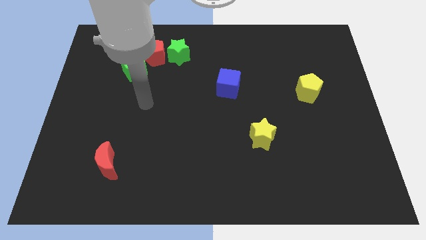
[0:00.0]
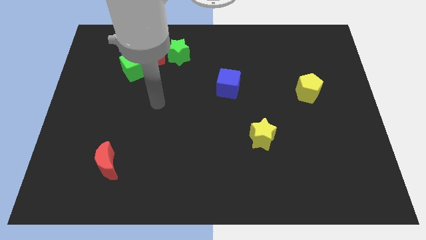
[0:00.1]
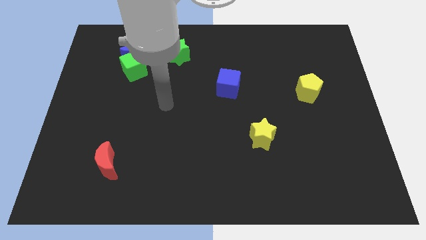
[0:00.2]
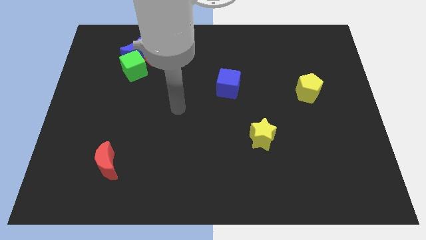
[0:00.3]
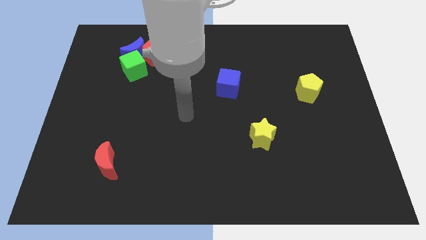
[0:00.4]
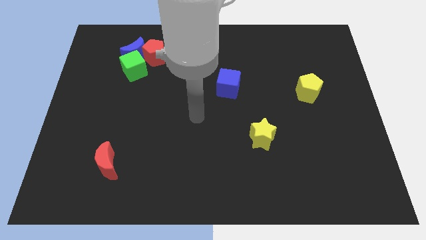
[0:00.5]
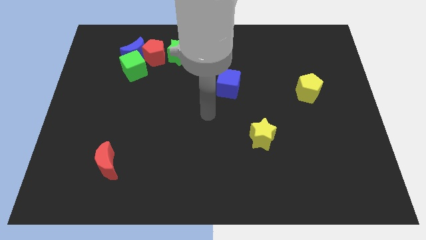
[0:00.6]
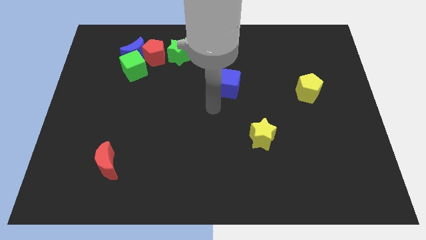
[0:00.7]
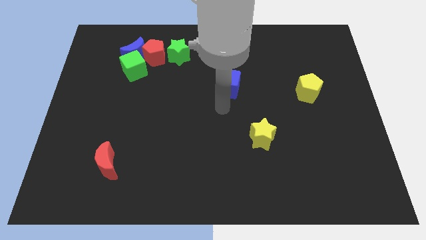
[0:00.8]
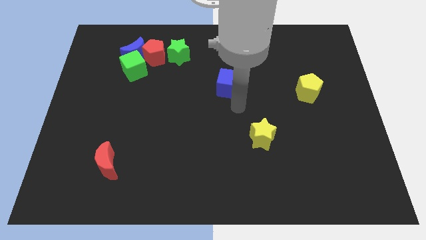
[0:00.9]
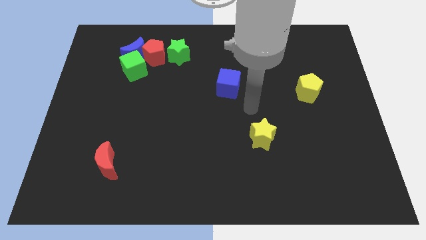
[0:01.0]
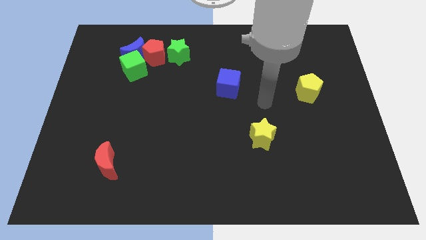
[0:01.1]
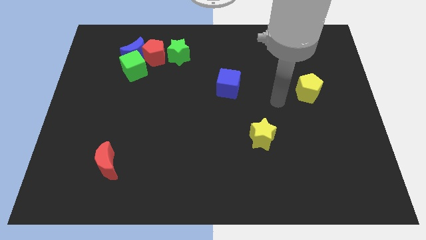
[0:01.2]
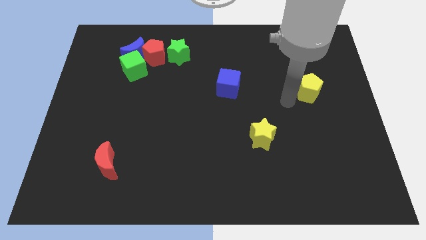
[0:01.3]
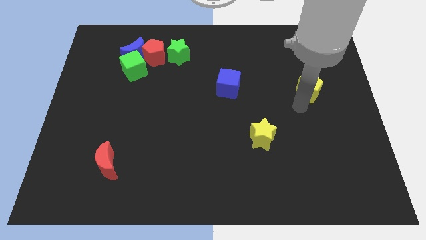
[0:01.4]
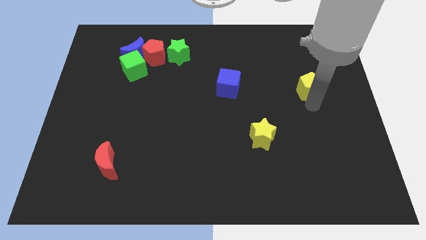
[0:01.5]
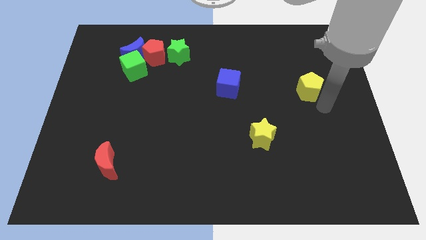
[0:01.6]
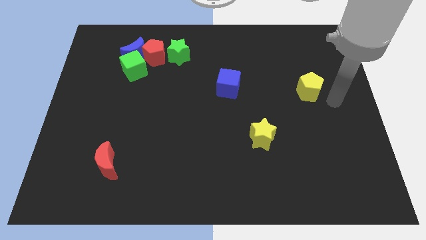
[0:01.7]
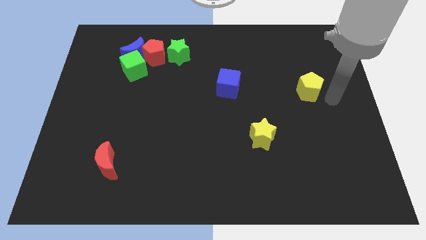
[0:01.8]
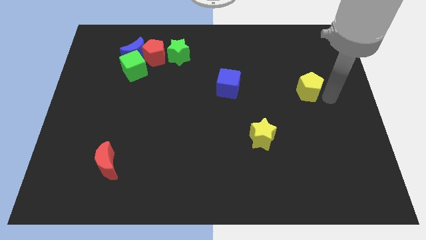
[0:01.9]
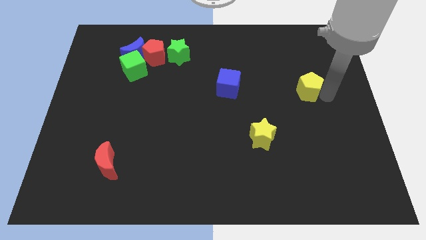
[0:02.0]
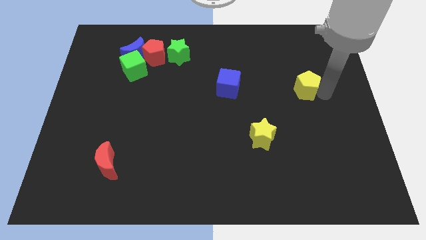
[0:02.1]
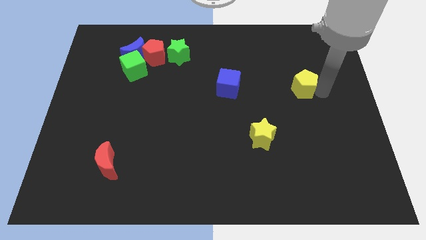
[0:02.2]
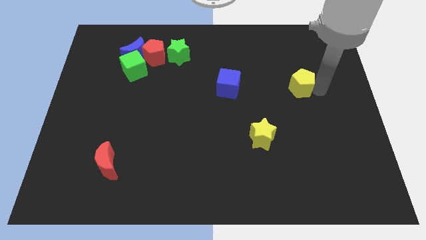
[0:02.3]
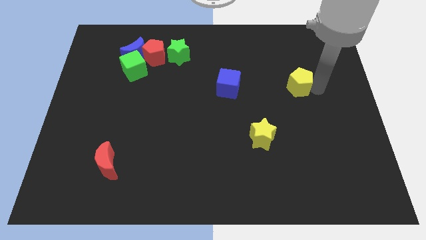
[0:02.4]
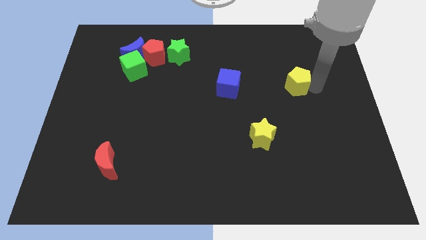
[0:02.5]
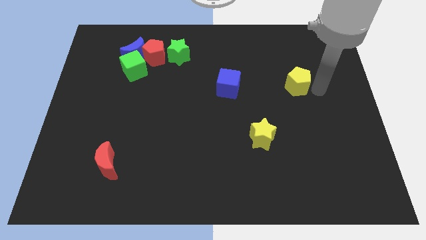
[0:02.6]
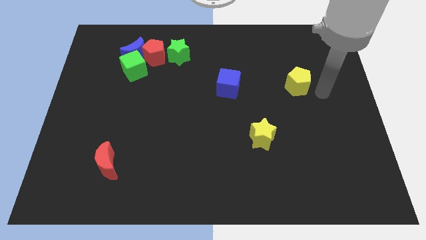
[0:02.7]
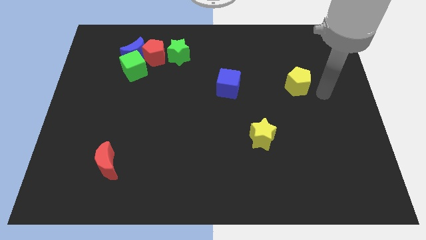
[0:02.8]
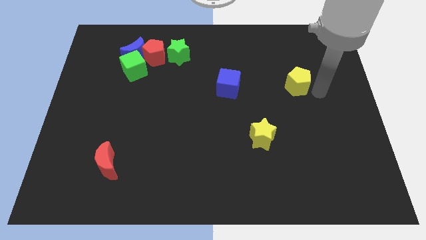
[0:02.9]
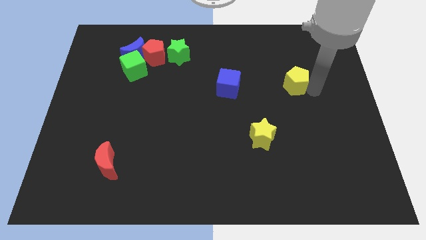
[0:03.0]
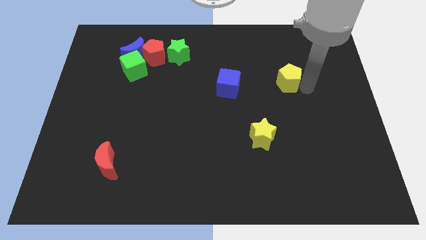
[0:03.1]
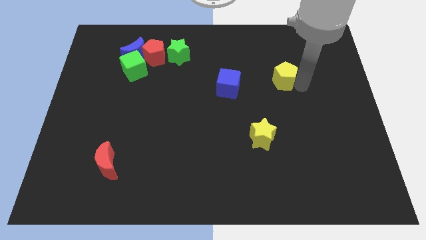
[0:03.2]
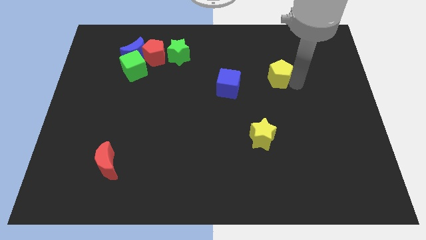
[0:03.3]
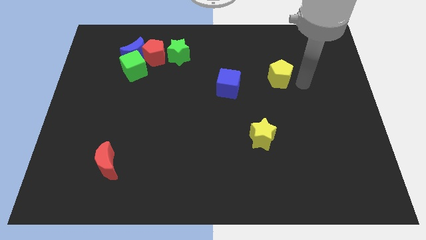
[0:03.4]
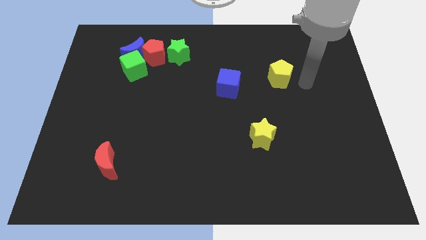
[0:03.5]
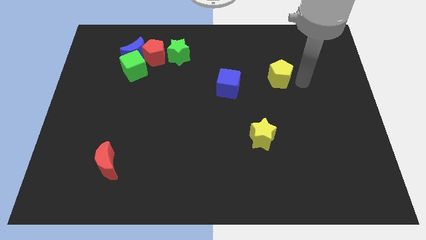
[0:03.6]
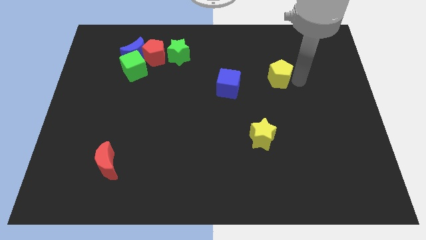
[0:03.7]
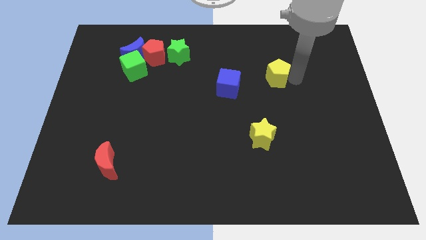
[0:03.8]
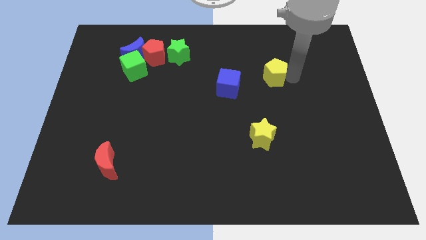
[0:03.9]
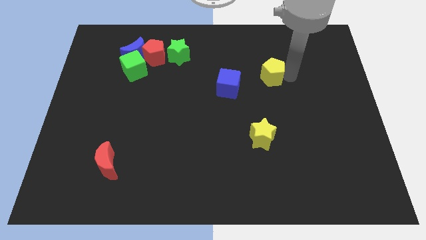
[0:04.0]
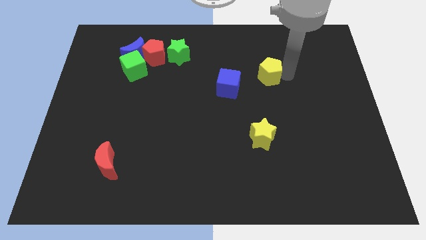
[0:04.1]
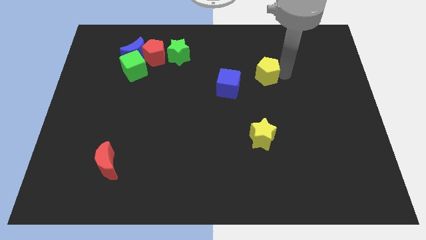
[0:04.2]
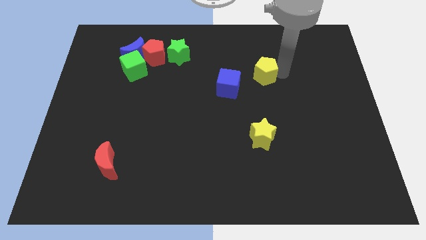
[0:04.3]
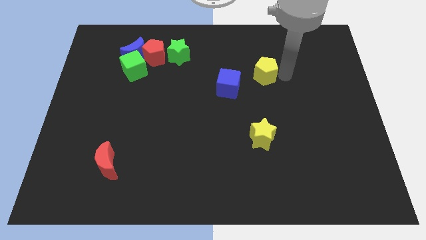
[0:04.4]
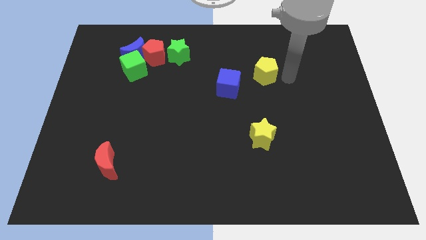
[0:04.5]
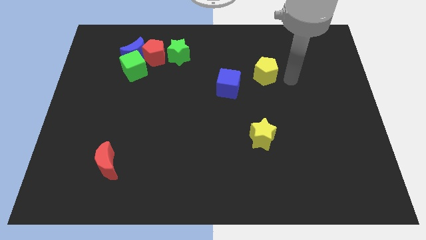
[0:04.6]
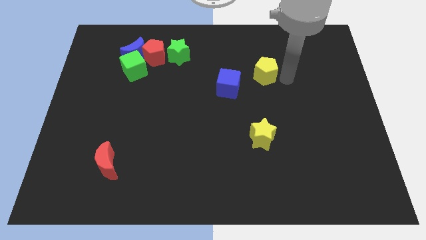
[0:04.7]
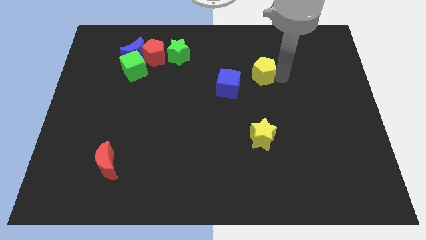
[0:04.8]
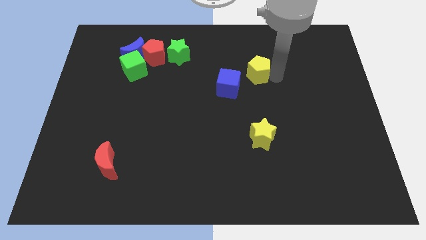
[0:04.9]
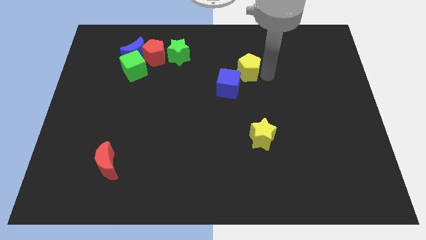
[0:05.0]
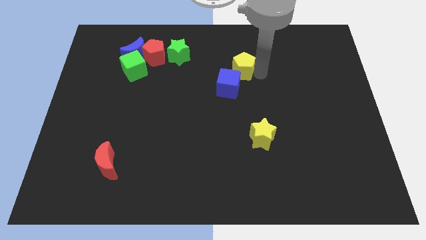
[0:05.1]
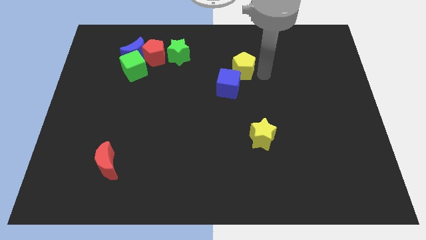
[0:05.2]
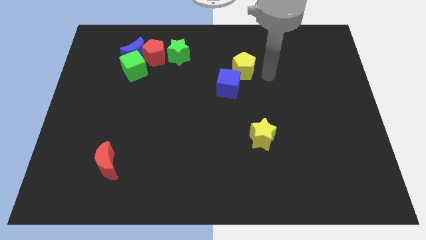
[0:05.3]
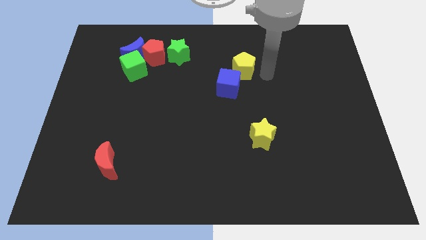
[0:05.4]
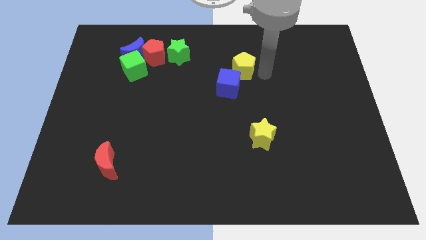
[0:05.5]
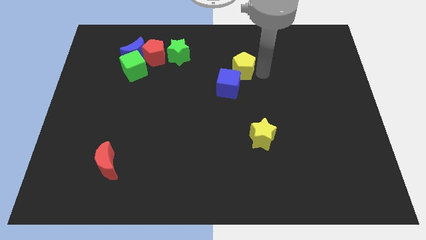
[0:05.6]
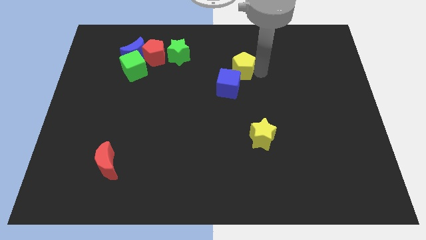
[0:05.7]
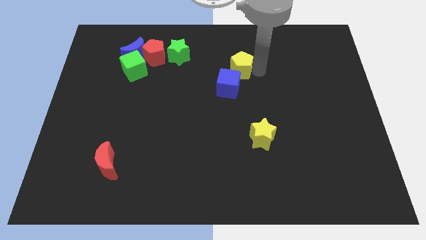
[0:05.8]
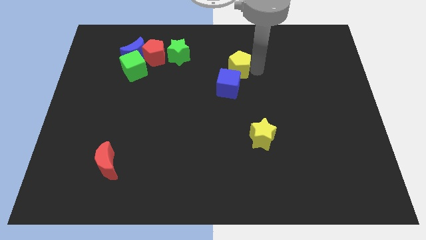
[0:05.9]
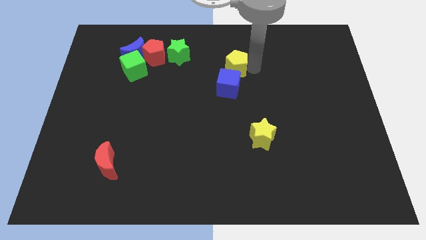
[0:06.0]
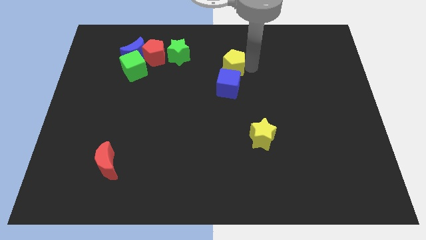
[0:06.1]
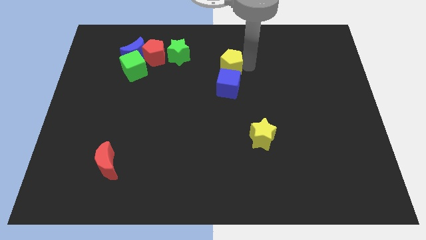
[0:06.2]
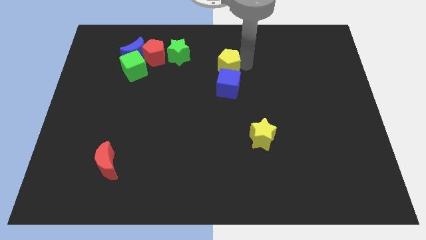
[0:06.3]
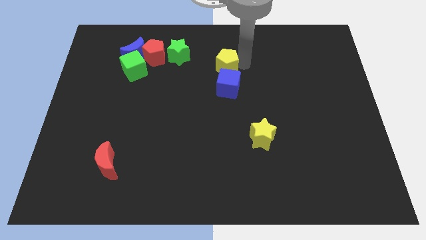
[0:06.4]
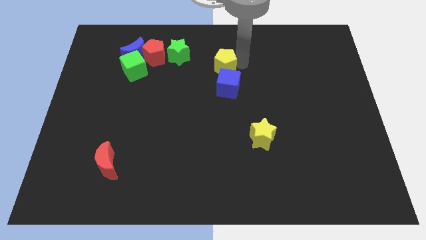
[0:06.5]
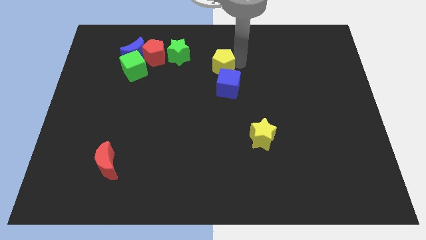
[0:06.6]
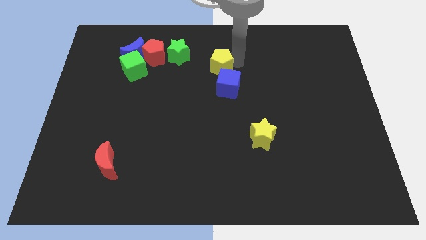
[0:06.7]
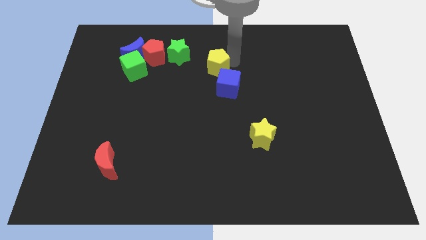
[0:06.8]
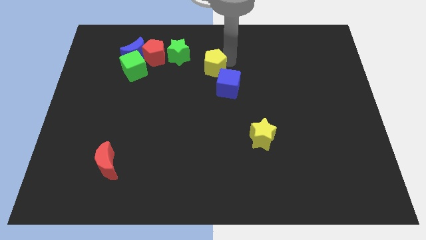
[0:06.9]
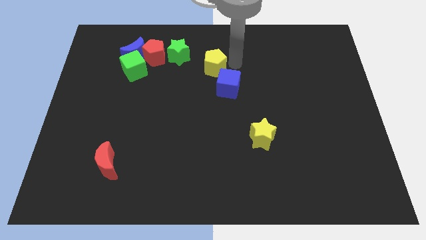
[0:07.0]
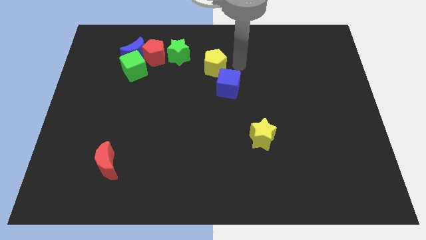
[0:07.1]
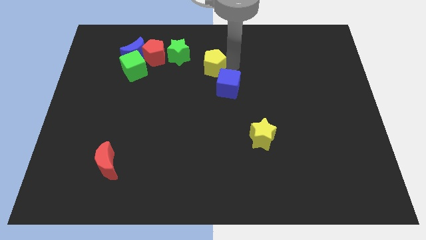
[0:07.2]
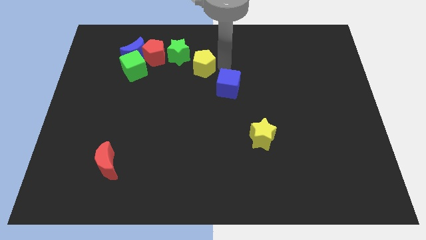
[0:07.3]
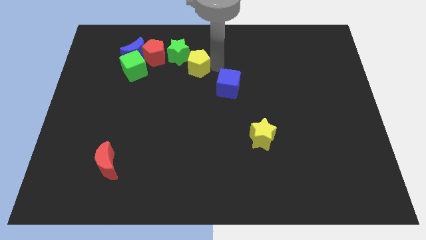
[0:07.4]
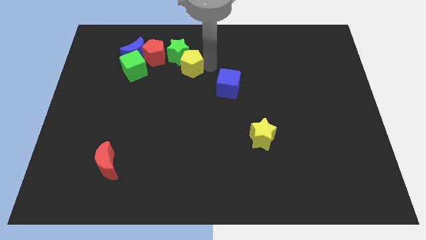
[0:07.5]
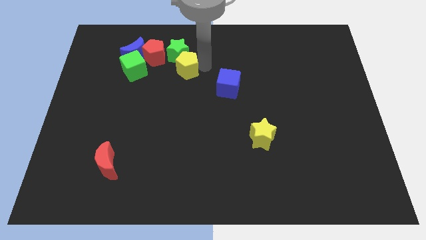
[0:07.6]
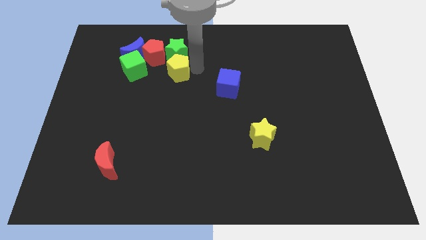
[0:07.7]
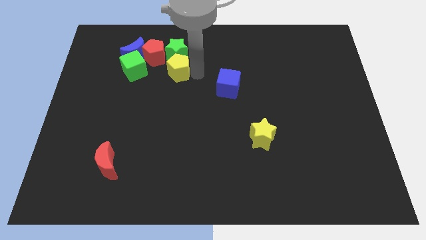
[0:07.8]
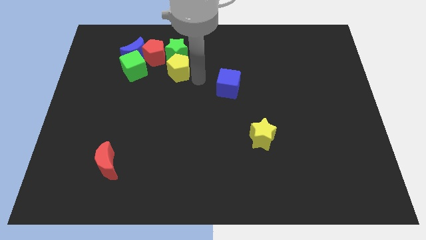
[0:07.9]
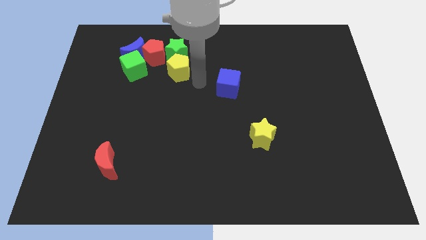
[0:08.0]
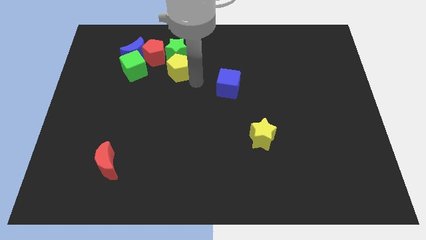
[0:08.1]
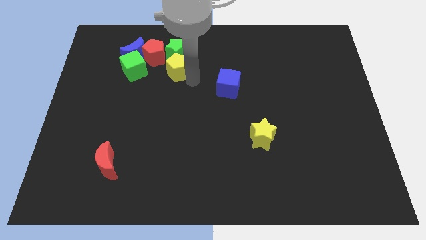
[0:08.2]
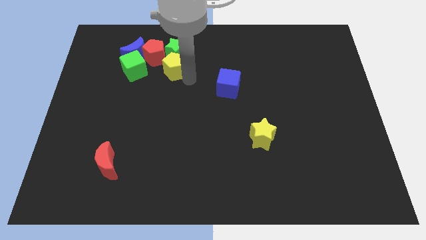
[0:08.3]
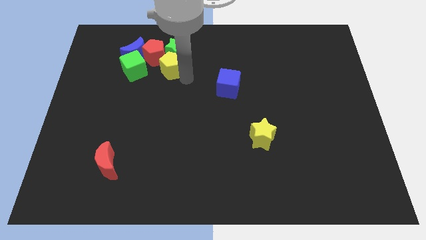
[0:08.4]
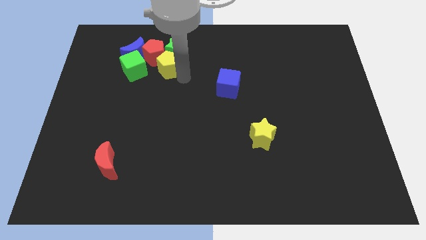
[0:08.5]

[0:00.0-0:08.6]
move the yellow pentagon to the red pentagon
